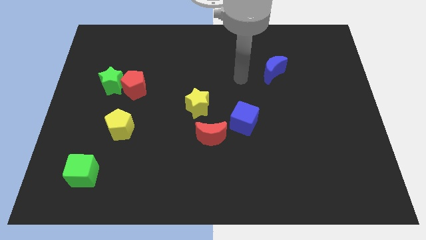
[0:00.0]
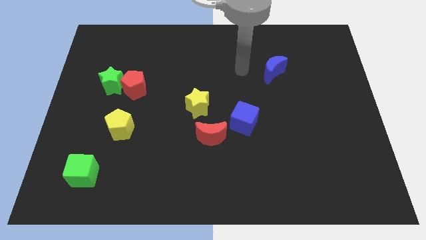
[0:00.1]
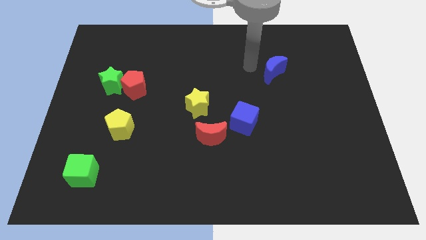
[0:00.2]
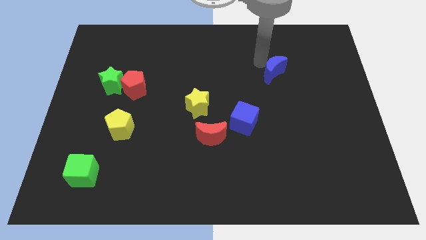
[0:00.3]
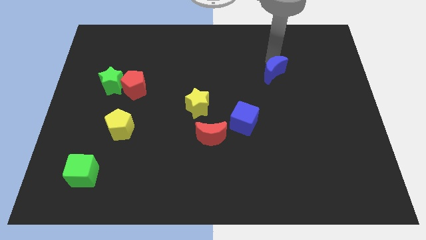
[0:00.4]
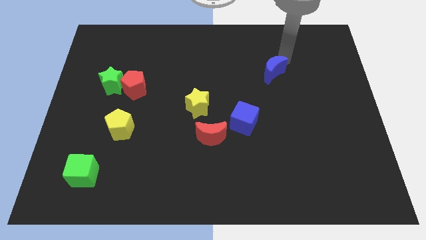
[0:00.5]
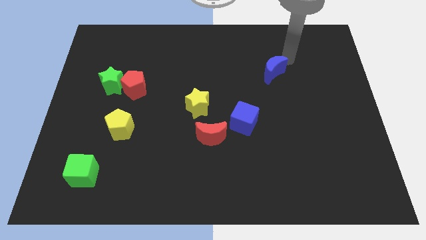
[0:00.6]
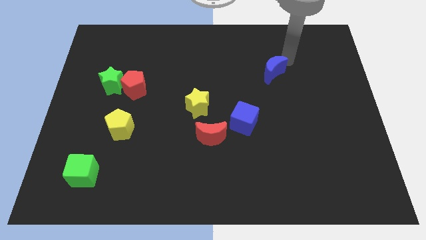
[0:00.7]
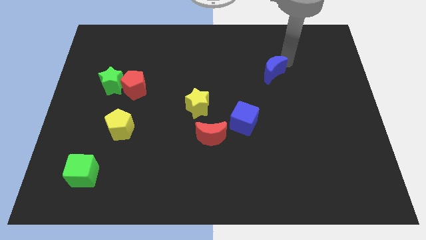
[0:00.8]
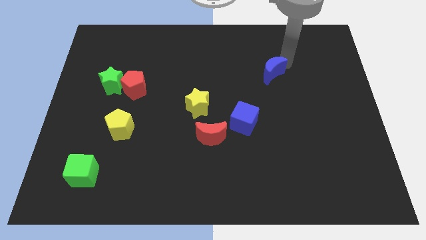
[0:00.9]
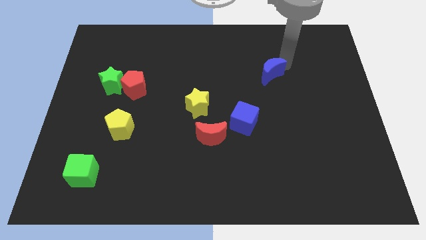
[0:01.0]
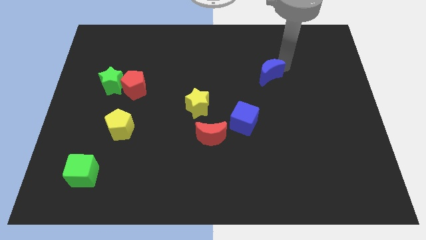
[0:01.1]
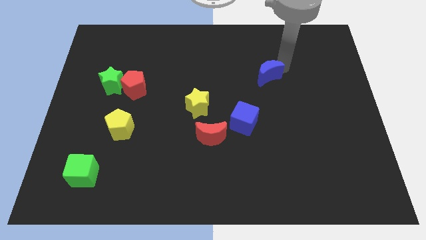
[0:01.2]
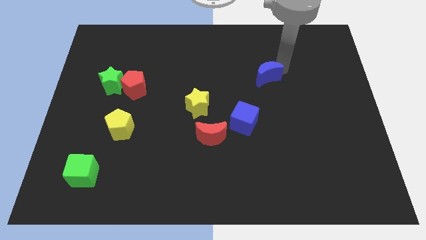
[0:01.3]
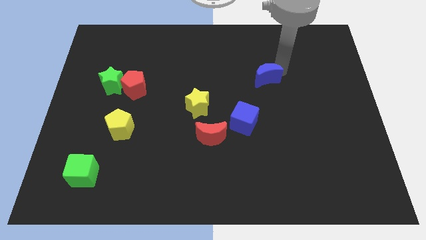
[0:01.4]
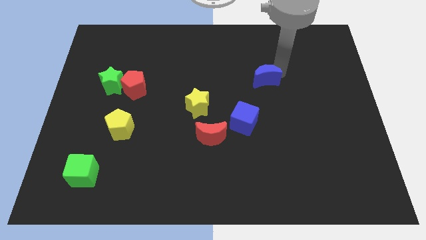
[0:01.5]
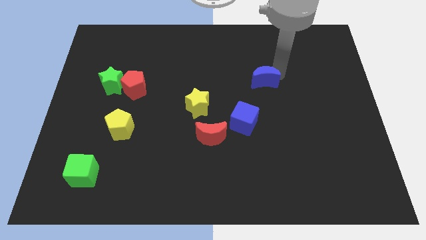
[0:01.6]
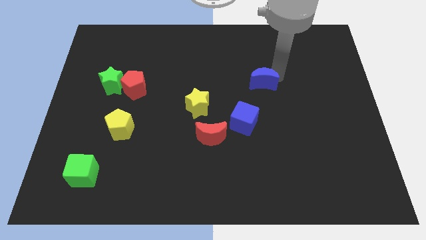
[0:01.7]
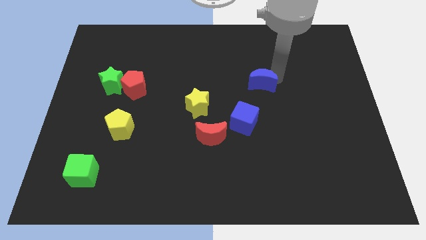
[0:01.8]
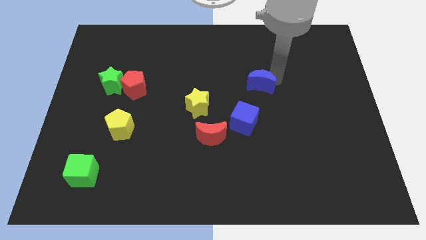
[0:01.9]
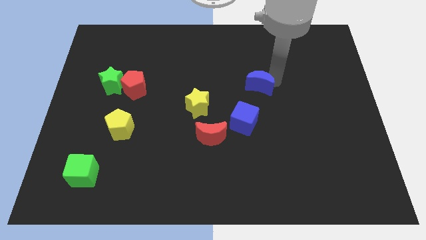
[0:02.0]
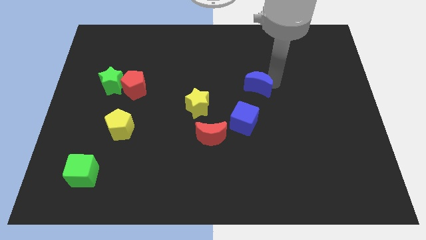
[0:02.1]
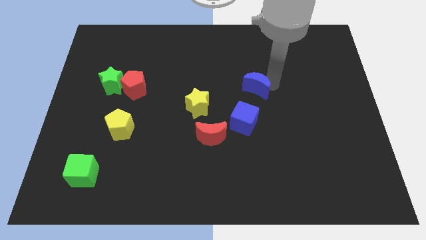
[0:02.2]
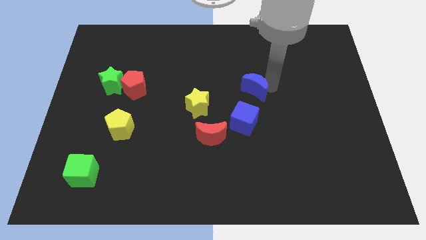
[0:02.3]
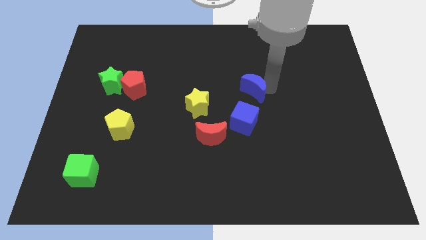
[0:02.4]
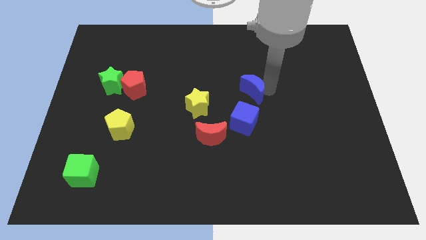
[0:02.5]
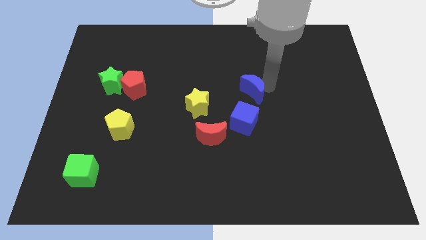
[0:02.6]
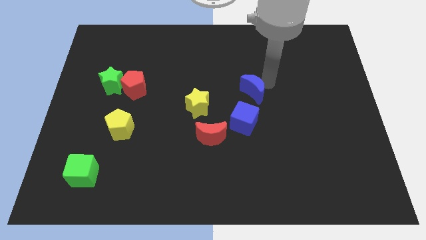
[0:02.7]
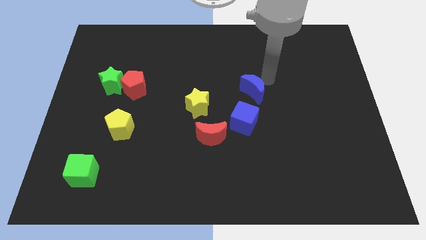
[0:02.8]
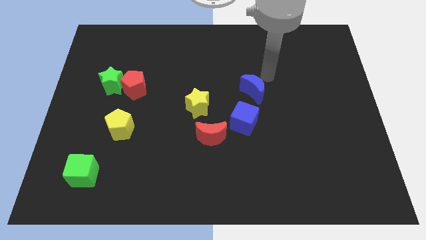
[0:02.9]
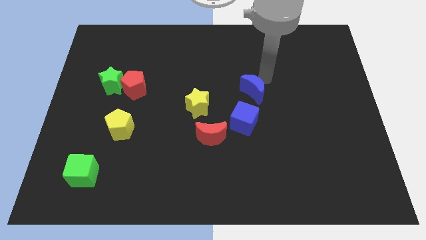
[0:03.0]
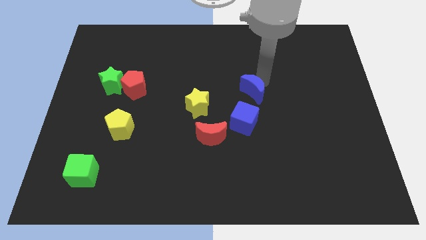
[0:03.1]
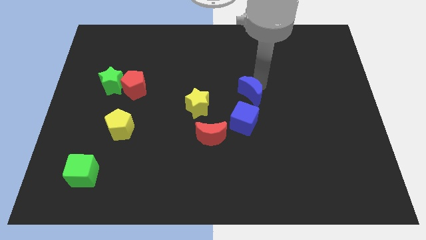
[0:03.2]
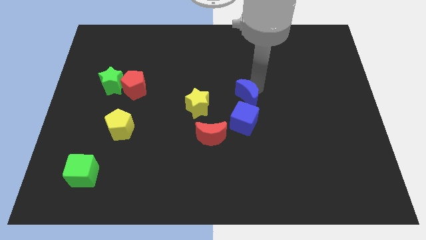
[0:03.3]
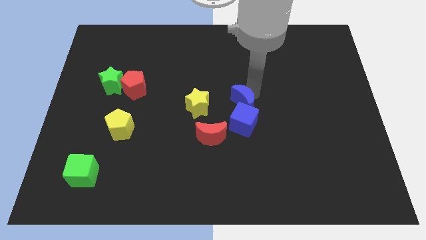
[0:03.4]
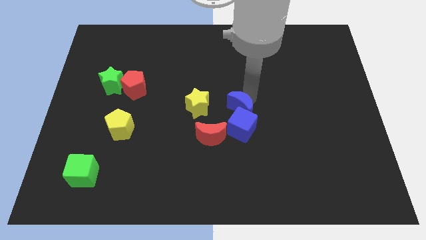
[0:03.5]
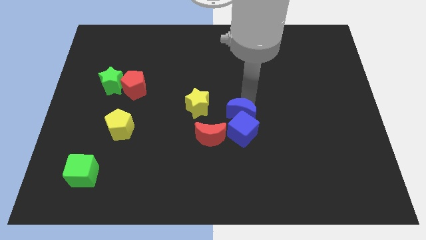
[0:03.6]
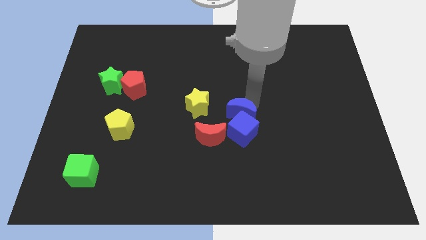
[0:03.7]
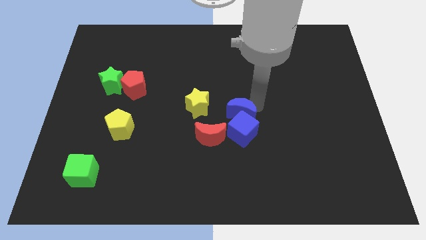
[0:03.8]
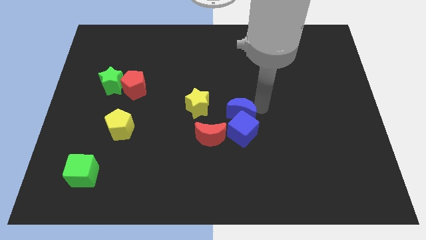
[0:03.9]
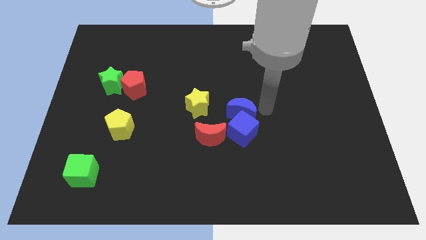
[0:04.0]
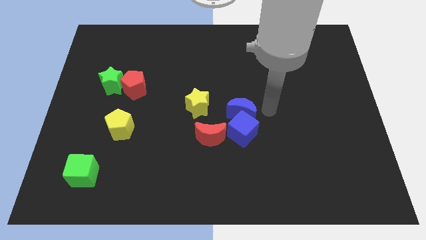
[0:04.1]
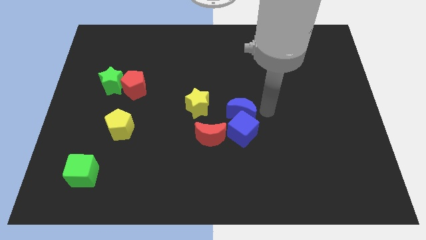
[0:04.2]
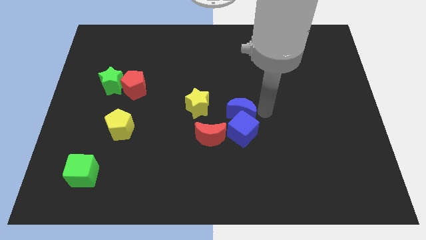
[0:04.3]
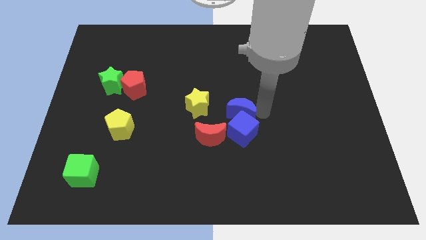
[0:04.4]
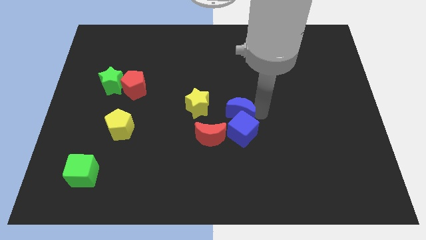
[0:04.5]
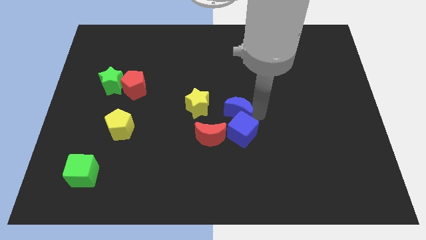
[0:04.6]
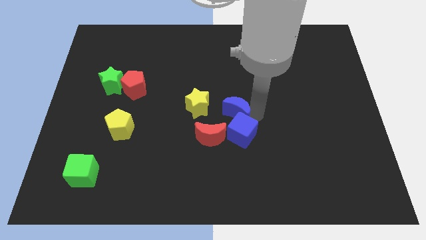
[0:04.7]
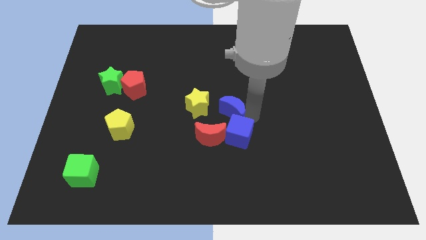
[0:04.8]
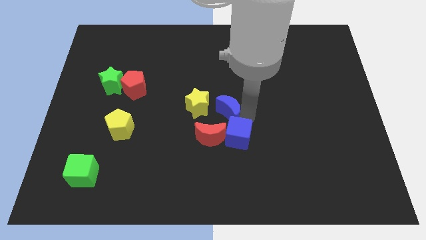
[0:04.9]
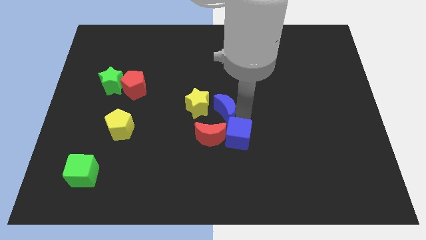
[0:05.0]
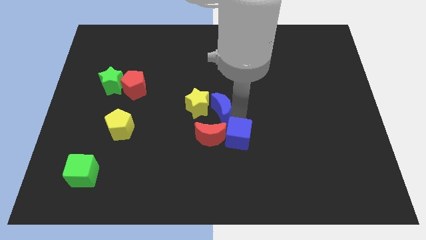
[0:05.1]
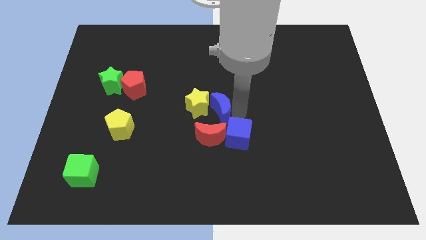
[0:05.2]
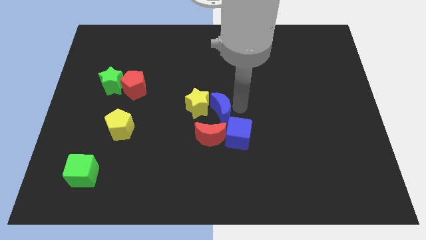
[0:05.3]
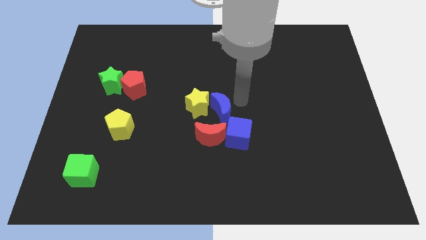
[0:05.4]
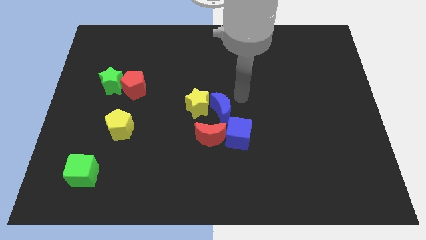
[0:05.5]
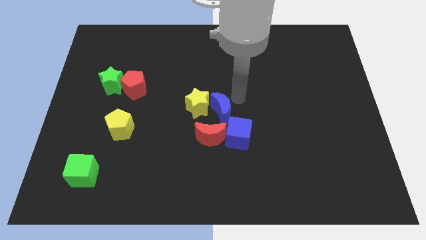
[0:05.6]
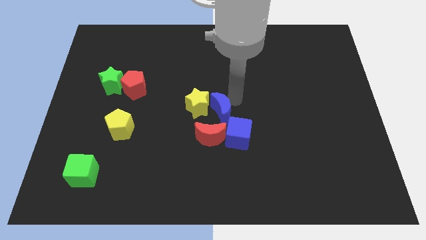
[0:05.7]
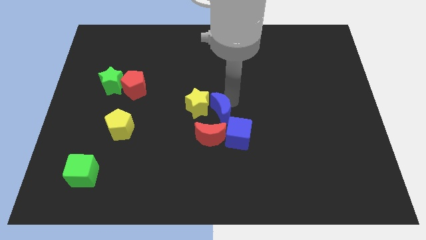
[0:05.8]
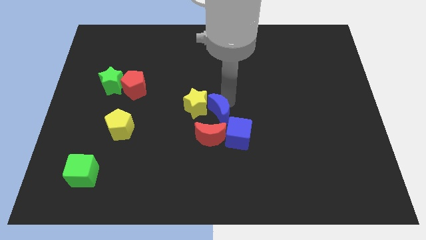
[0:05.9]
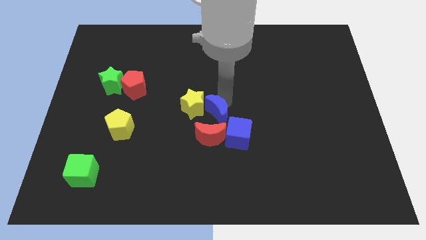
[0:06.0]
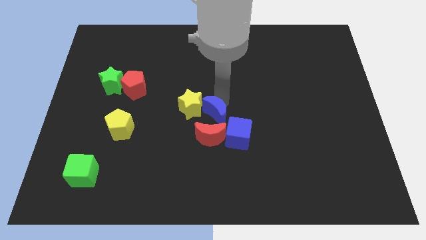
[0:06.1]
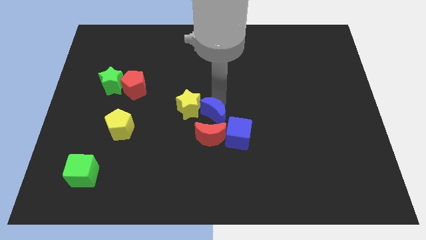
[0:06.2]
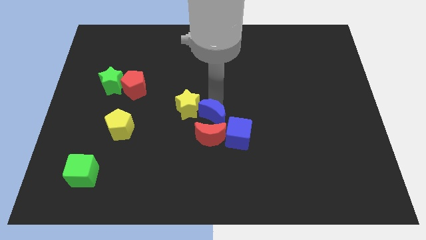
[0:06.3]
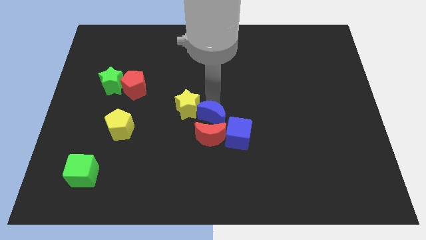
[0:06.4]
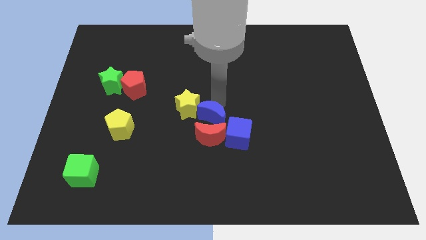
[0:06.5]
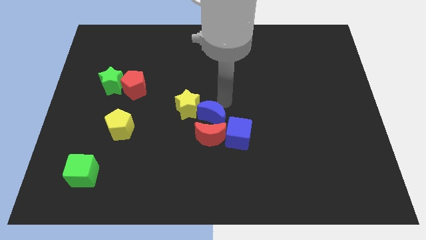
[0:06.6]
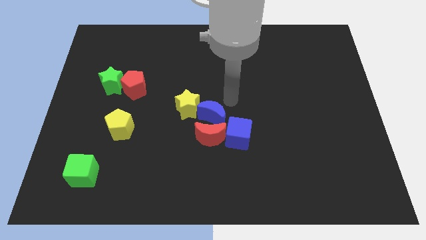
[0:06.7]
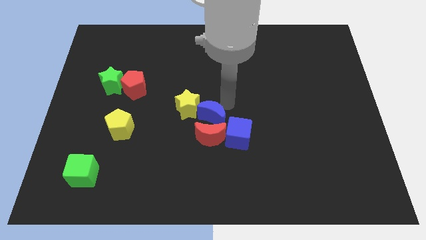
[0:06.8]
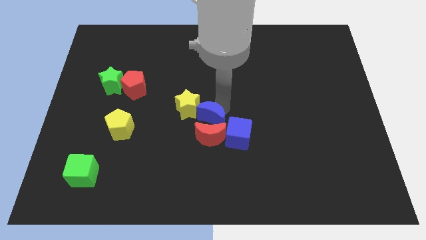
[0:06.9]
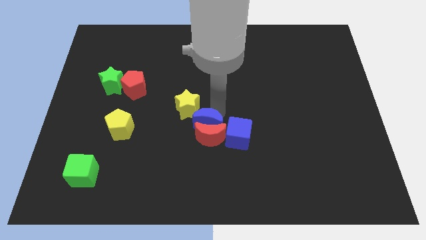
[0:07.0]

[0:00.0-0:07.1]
put the blue moon left of the blue cube
